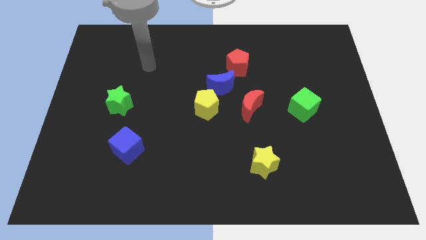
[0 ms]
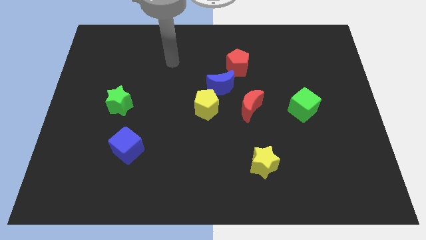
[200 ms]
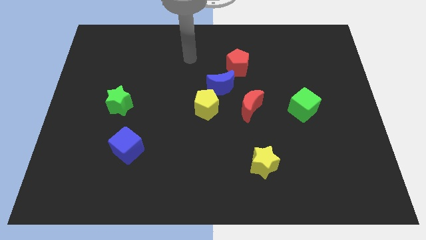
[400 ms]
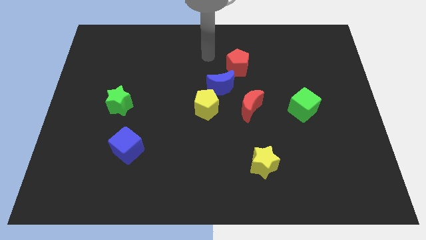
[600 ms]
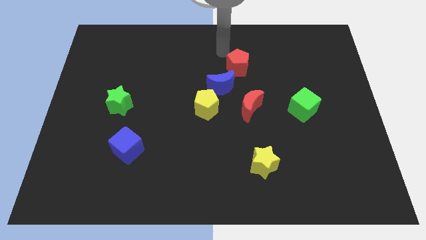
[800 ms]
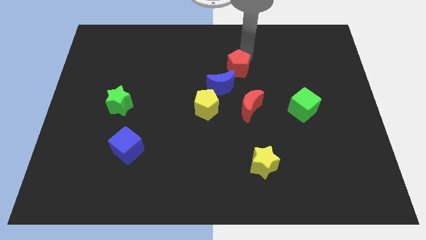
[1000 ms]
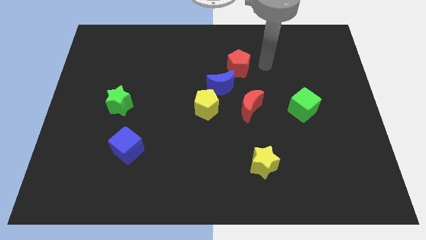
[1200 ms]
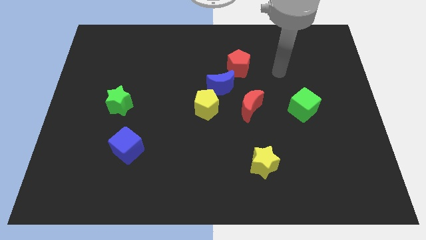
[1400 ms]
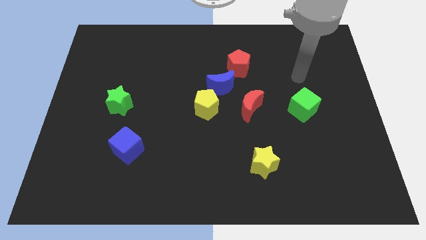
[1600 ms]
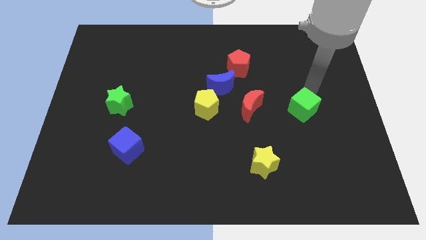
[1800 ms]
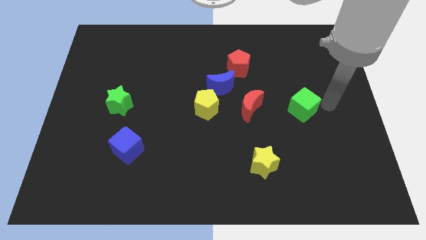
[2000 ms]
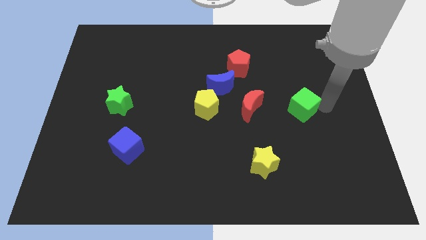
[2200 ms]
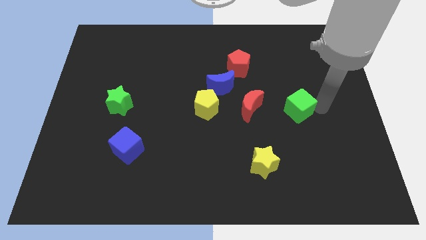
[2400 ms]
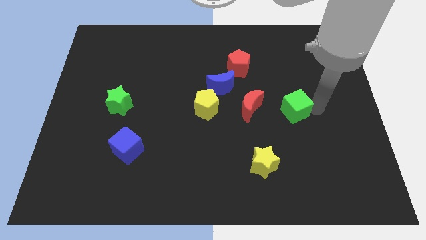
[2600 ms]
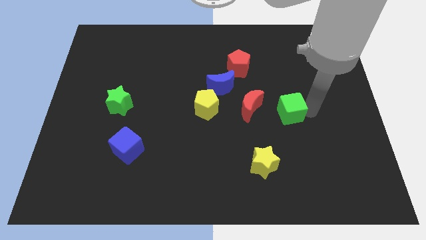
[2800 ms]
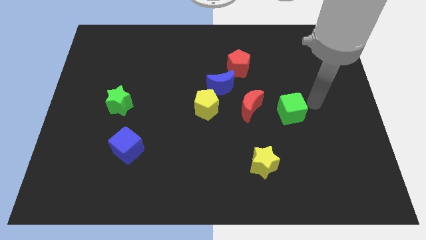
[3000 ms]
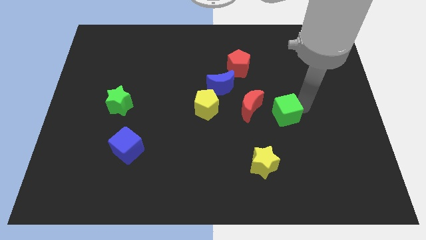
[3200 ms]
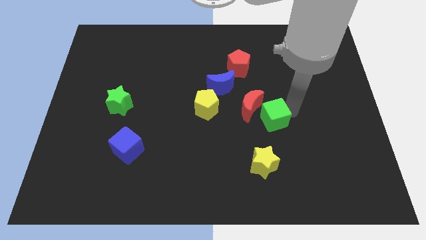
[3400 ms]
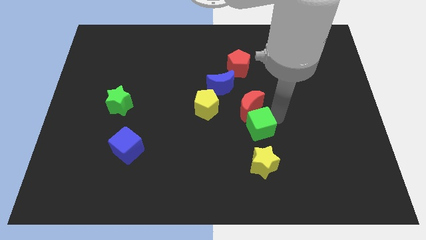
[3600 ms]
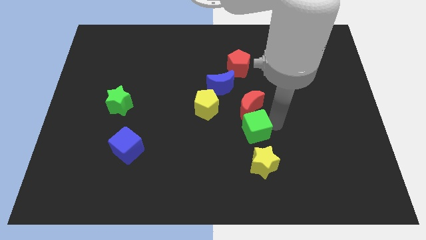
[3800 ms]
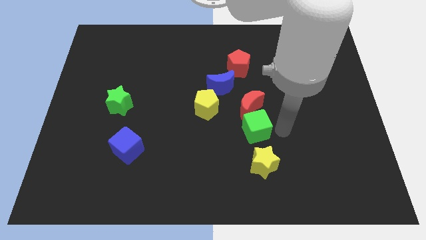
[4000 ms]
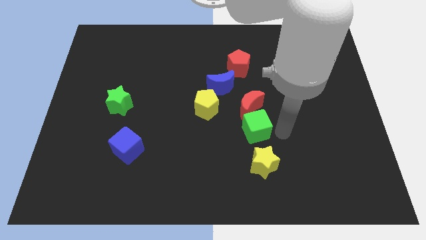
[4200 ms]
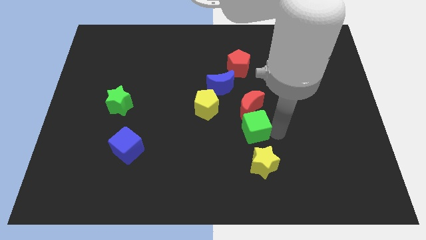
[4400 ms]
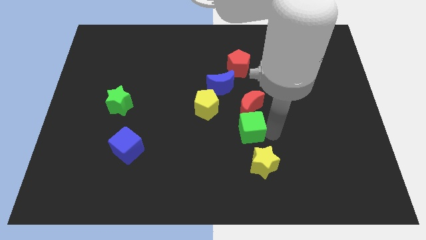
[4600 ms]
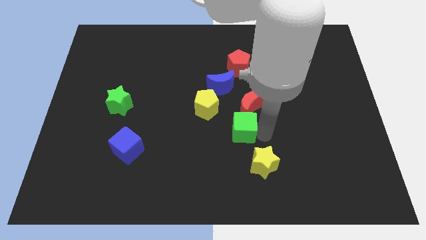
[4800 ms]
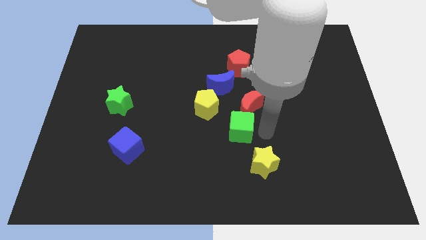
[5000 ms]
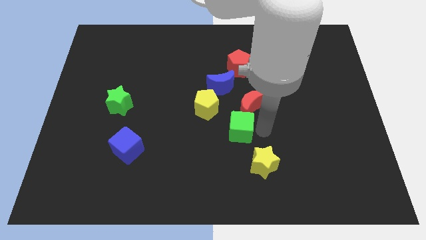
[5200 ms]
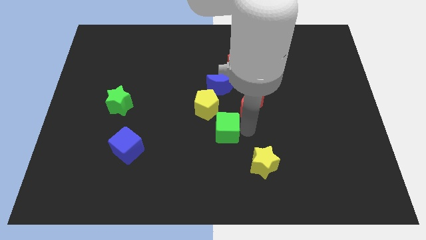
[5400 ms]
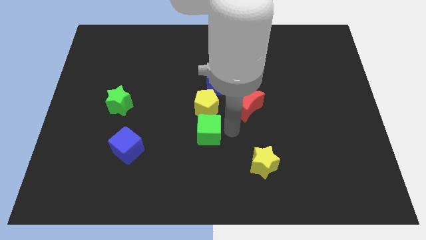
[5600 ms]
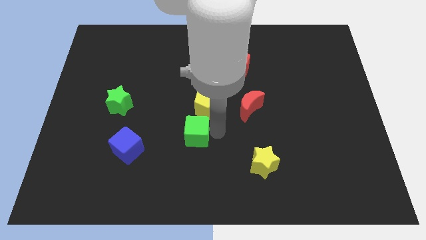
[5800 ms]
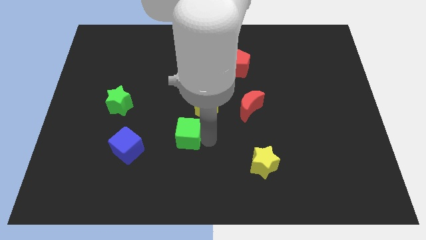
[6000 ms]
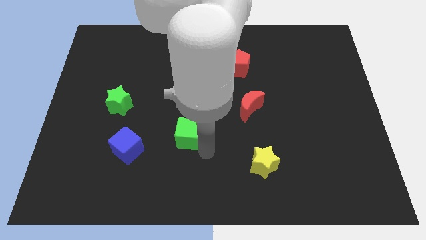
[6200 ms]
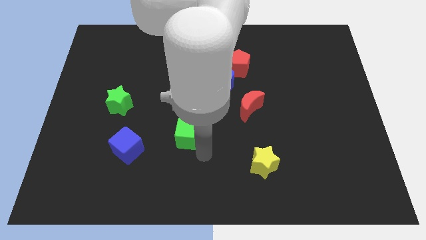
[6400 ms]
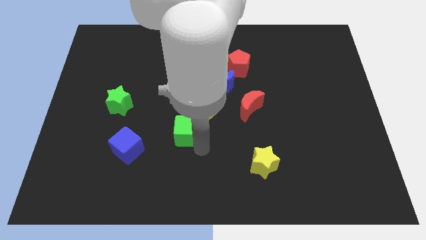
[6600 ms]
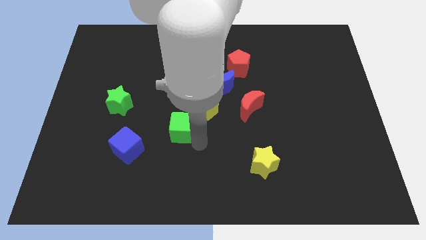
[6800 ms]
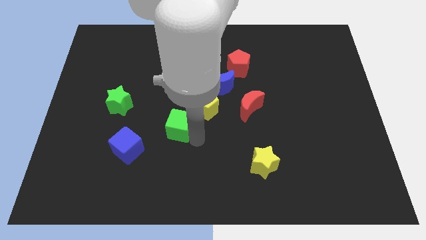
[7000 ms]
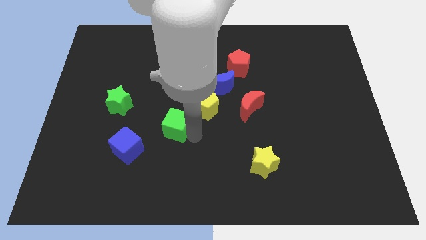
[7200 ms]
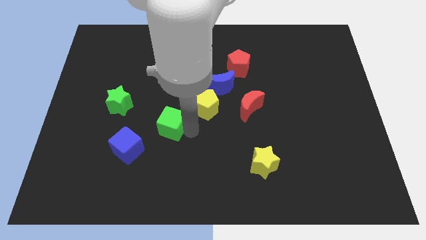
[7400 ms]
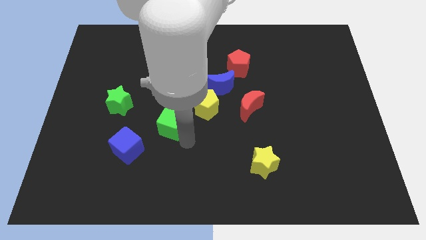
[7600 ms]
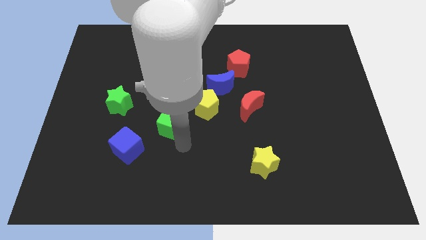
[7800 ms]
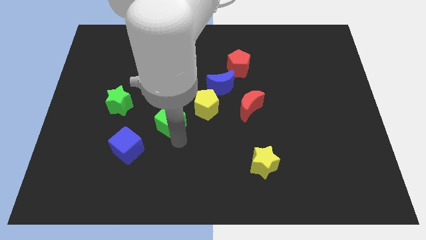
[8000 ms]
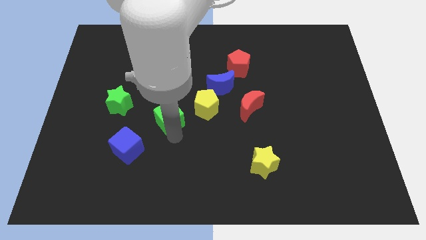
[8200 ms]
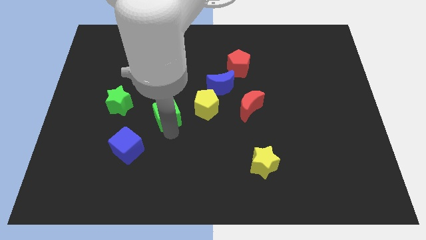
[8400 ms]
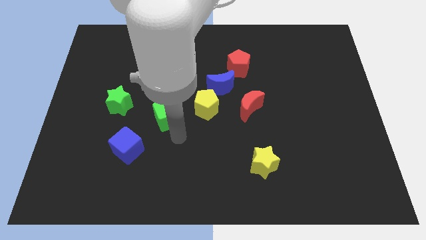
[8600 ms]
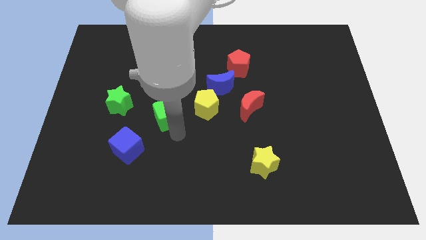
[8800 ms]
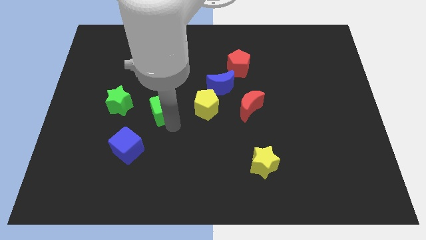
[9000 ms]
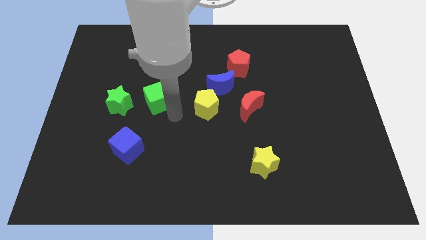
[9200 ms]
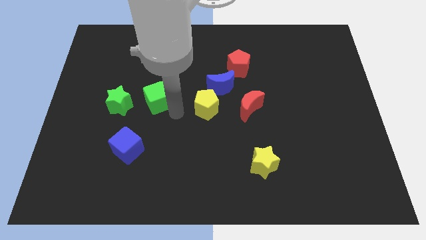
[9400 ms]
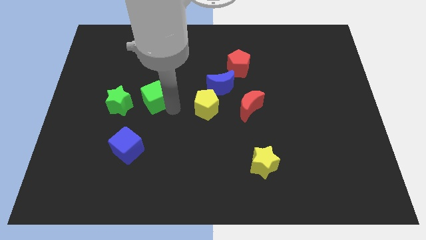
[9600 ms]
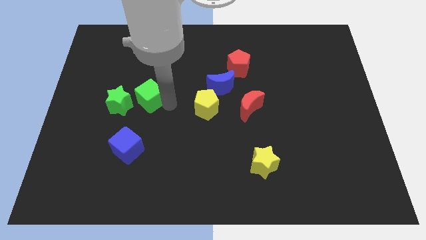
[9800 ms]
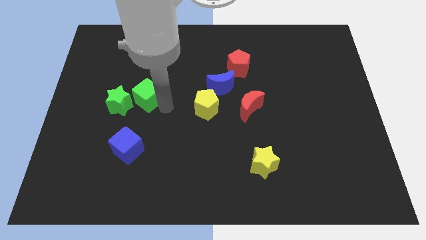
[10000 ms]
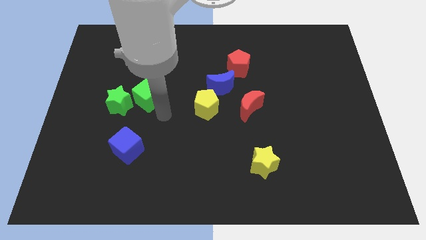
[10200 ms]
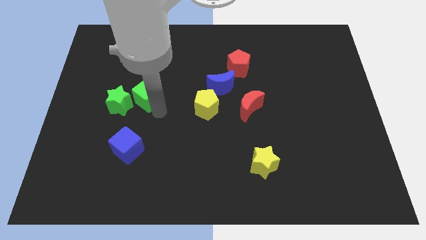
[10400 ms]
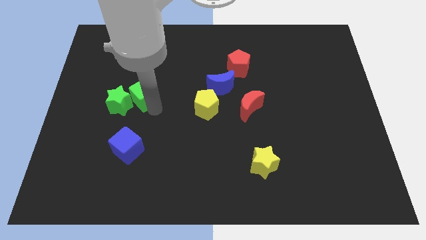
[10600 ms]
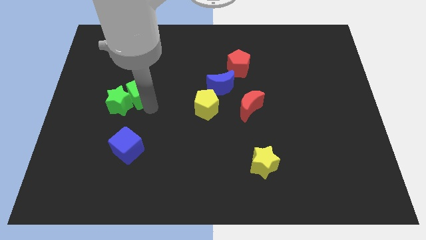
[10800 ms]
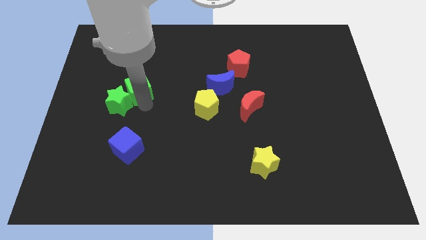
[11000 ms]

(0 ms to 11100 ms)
push the green cube to the top side of the green star

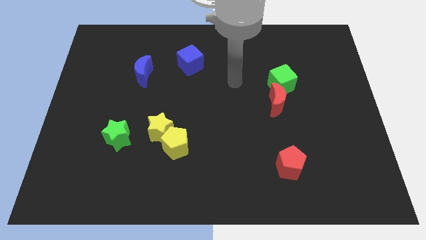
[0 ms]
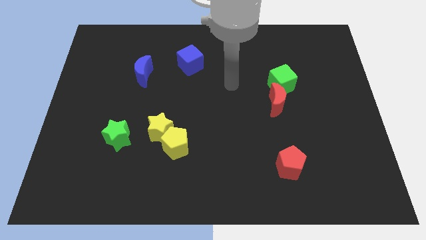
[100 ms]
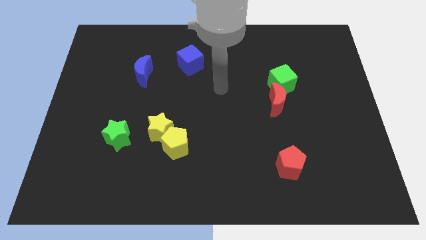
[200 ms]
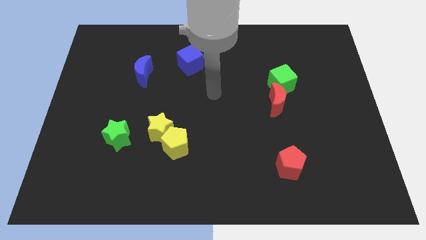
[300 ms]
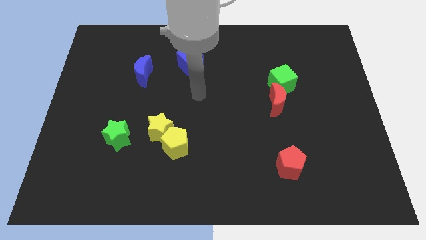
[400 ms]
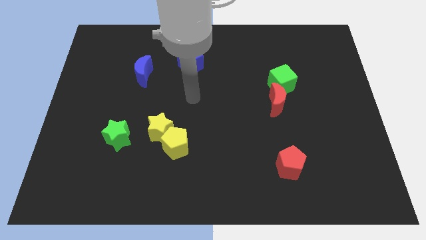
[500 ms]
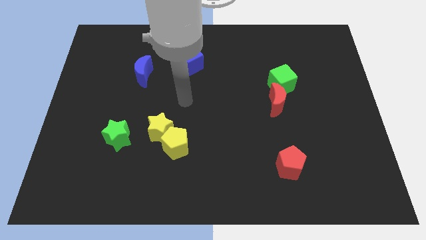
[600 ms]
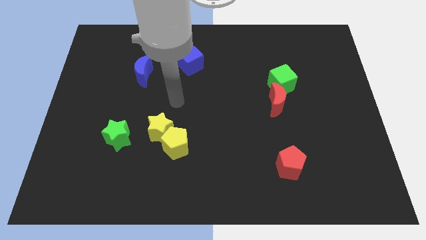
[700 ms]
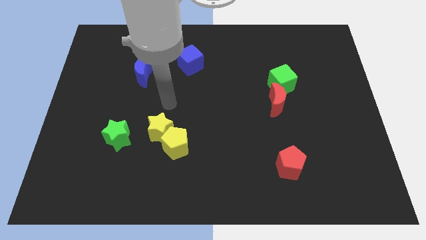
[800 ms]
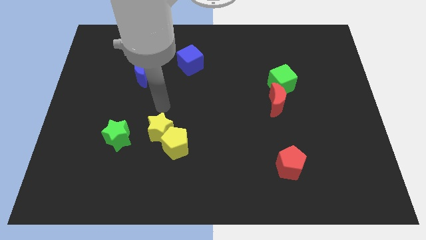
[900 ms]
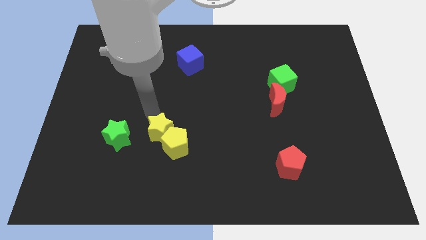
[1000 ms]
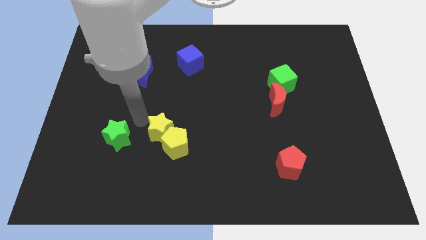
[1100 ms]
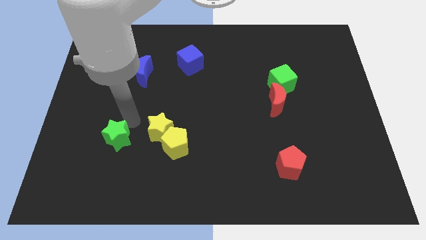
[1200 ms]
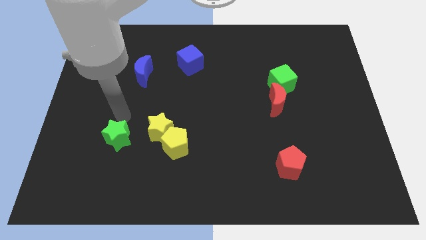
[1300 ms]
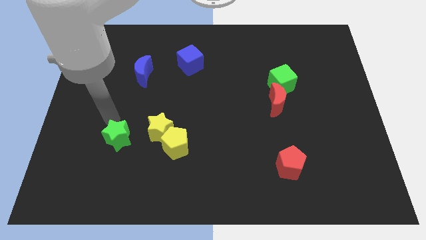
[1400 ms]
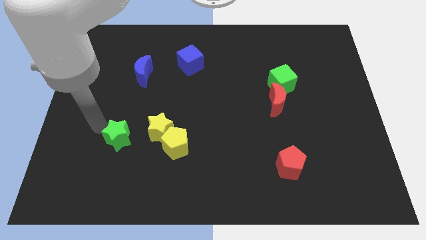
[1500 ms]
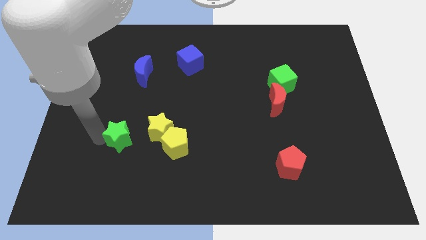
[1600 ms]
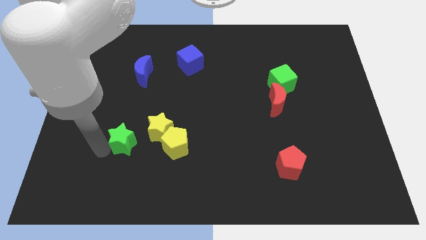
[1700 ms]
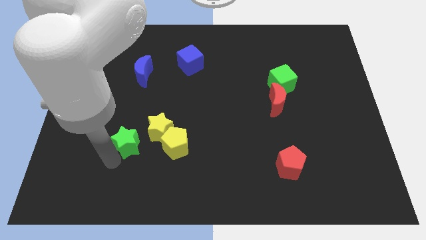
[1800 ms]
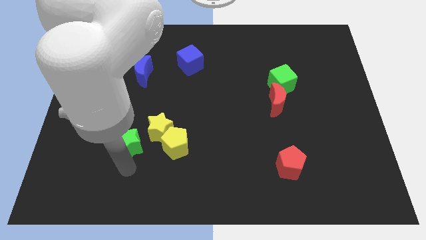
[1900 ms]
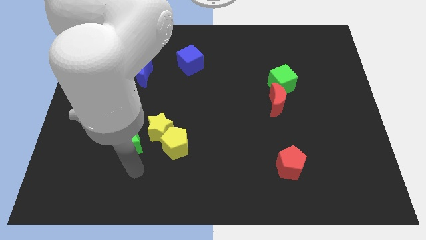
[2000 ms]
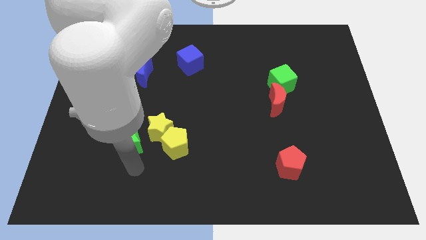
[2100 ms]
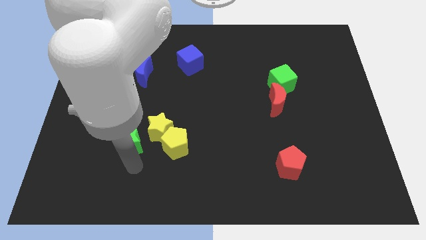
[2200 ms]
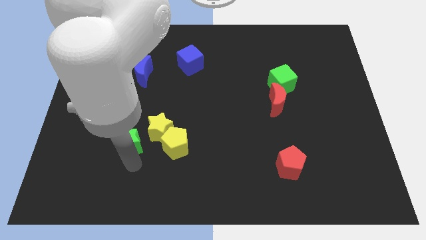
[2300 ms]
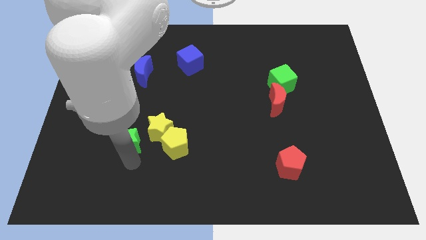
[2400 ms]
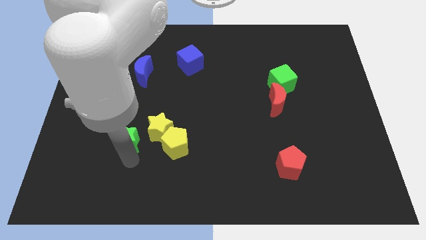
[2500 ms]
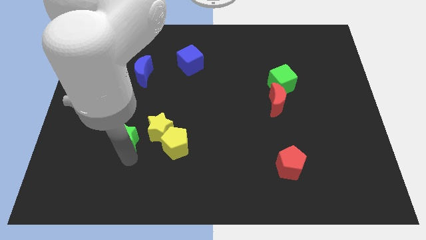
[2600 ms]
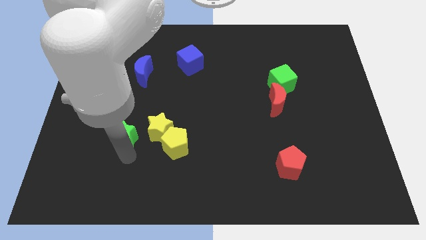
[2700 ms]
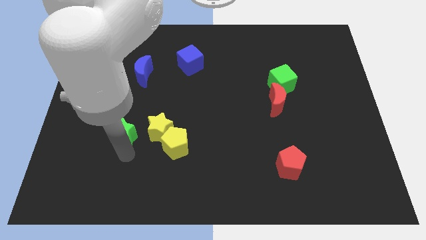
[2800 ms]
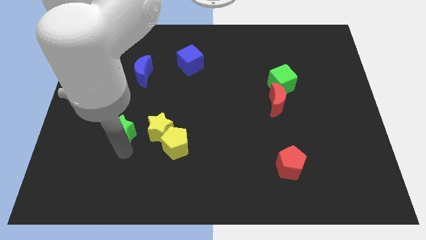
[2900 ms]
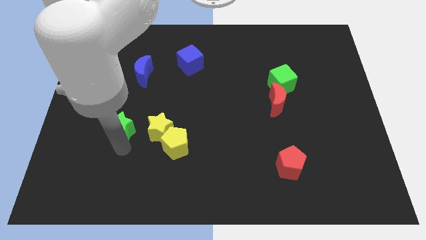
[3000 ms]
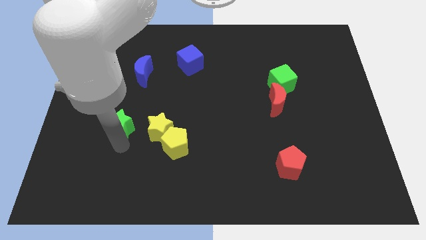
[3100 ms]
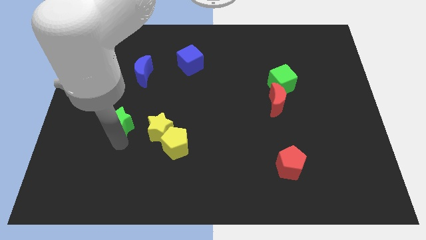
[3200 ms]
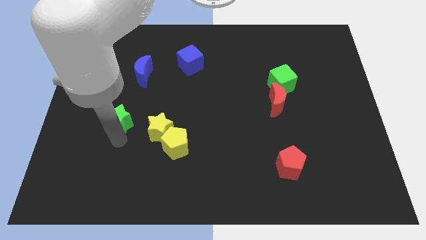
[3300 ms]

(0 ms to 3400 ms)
put the green star below the blue moon
